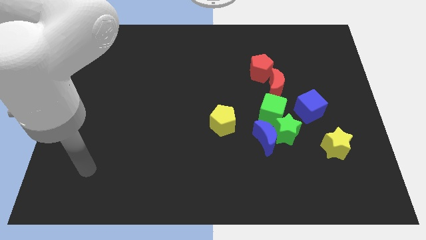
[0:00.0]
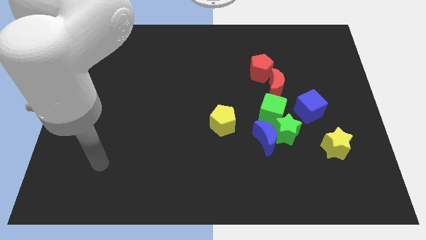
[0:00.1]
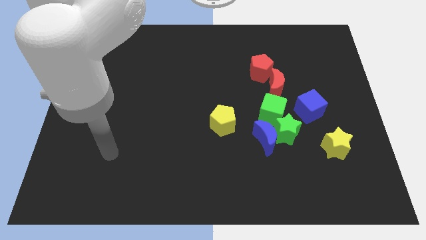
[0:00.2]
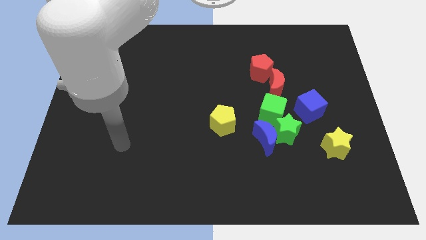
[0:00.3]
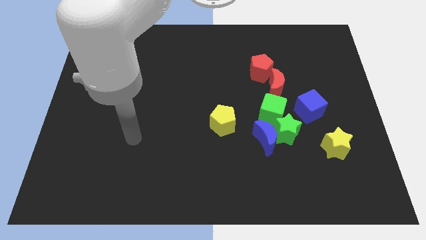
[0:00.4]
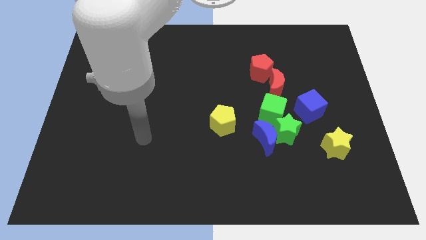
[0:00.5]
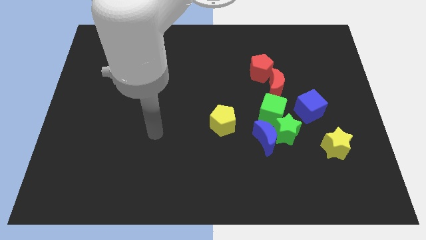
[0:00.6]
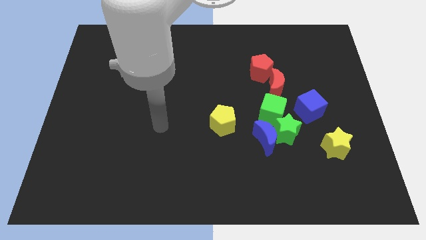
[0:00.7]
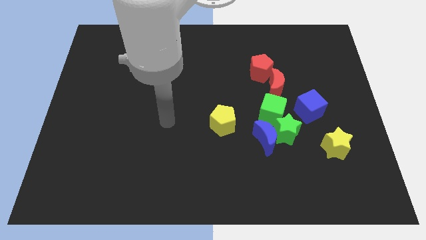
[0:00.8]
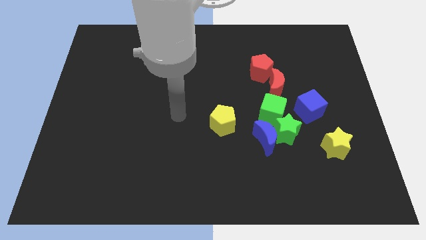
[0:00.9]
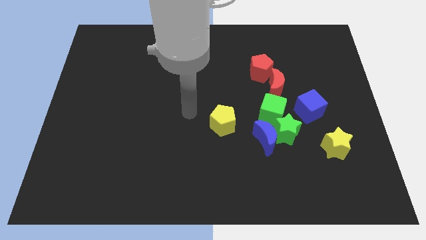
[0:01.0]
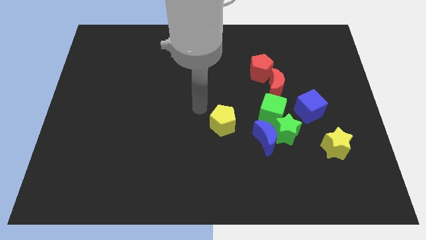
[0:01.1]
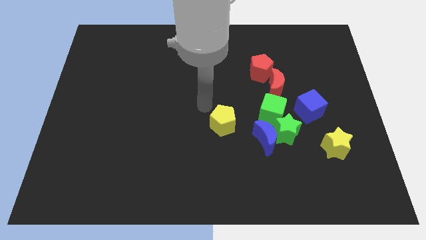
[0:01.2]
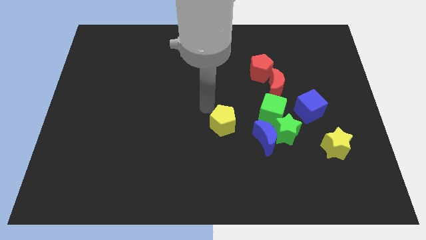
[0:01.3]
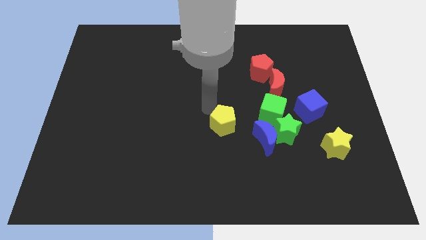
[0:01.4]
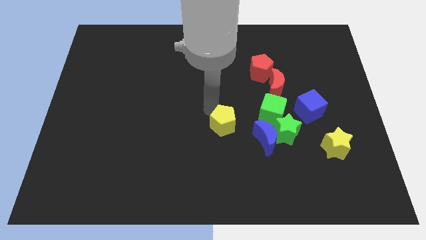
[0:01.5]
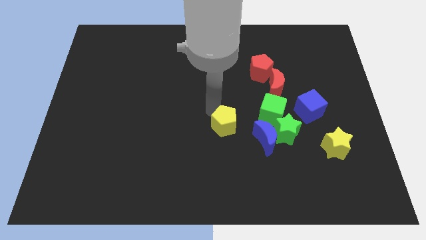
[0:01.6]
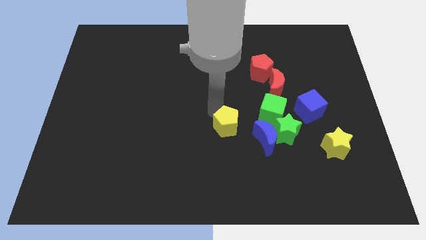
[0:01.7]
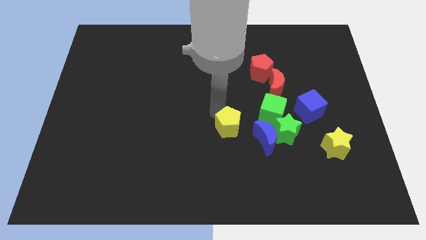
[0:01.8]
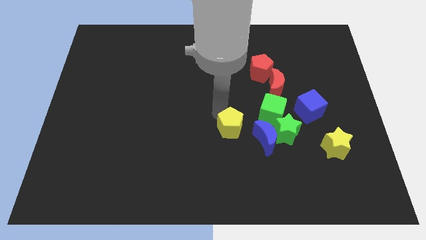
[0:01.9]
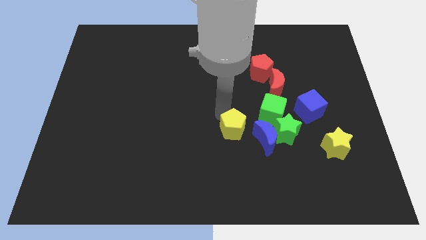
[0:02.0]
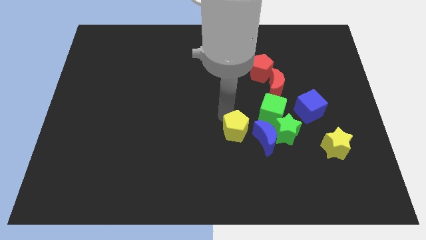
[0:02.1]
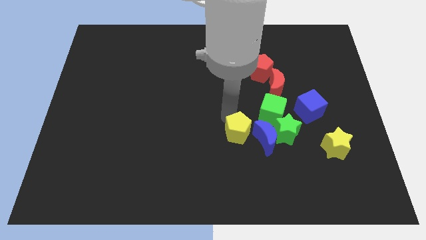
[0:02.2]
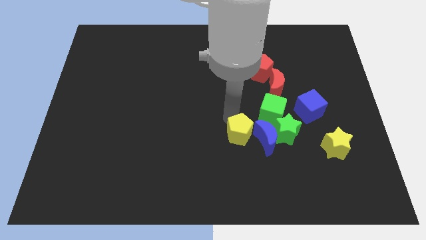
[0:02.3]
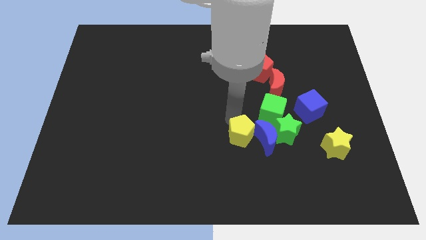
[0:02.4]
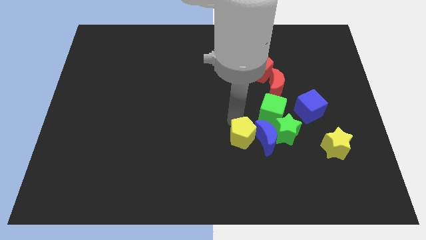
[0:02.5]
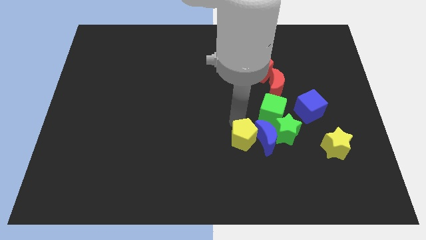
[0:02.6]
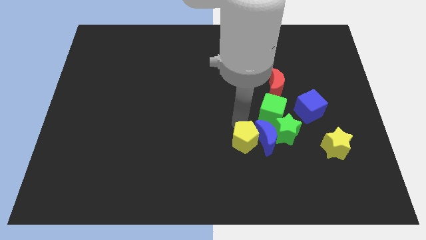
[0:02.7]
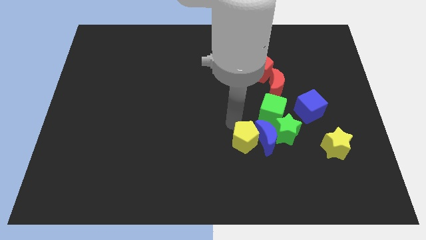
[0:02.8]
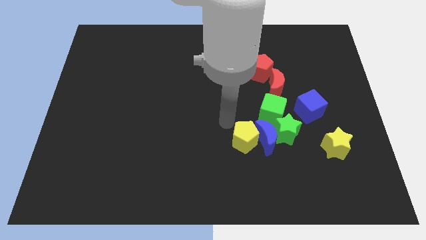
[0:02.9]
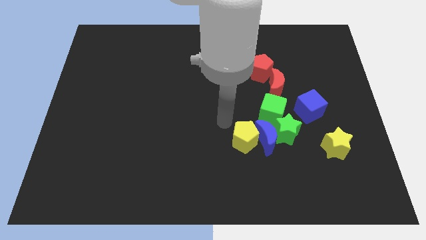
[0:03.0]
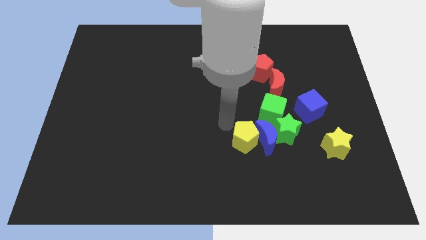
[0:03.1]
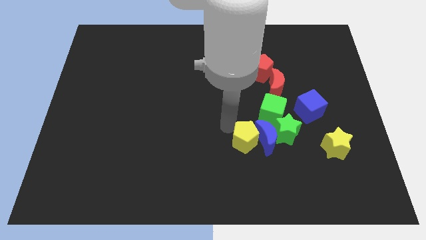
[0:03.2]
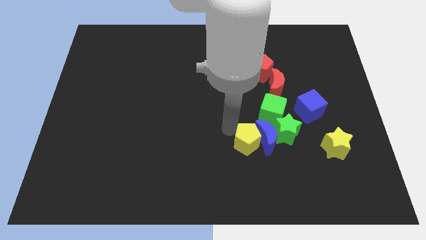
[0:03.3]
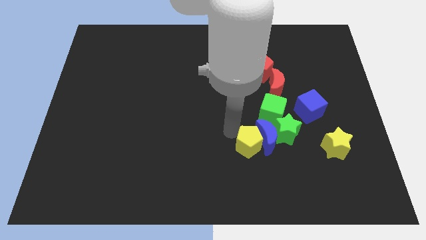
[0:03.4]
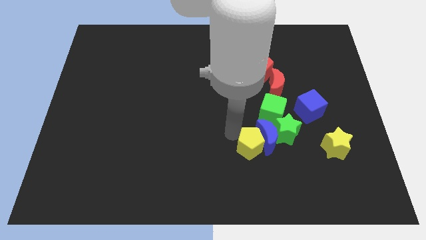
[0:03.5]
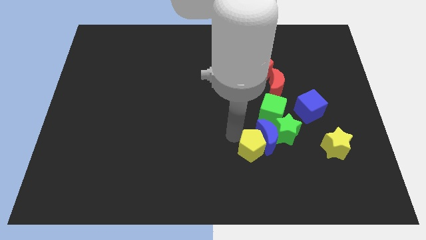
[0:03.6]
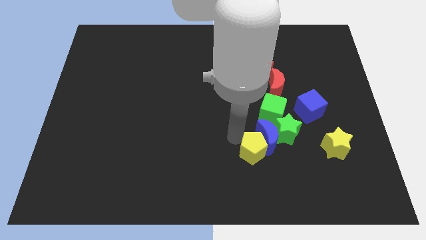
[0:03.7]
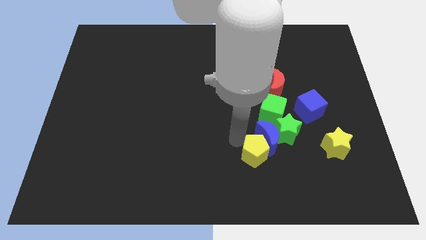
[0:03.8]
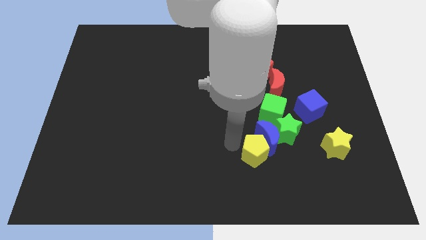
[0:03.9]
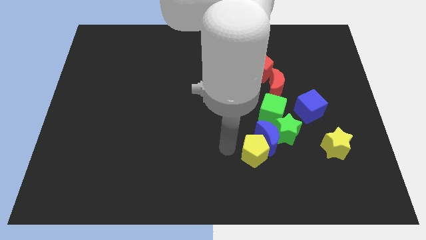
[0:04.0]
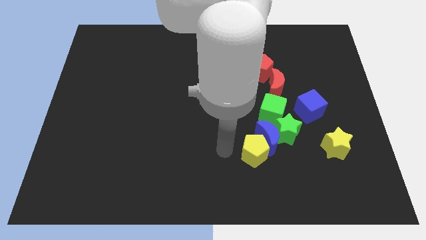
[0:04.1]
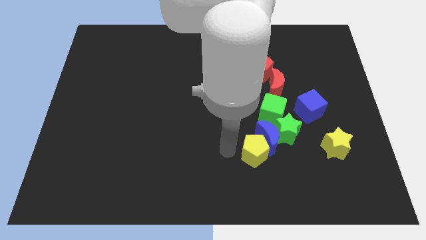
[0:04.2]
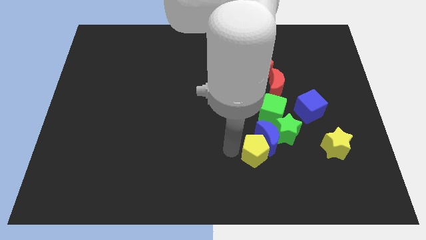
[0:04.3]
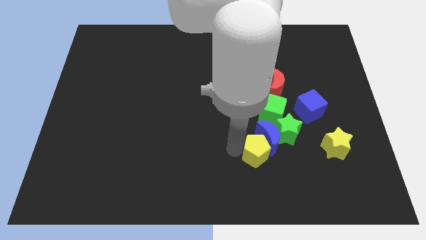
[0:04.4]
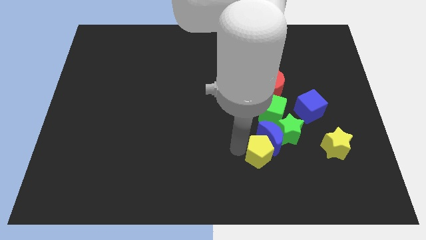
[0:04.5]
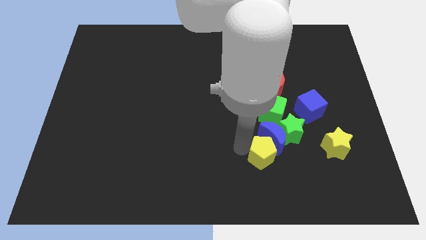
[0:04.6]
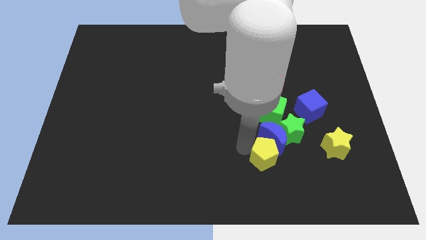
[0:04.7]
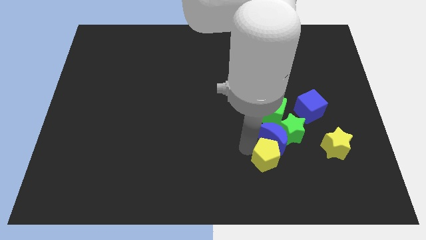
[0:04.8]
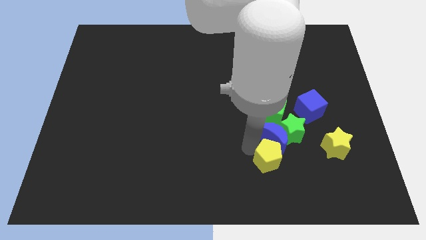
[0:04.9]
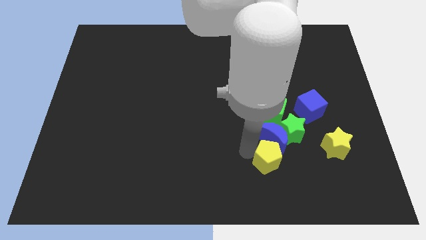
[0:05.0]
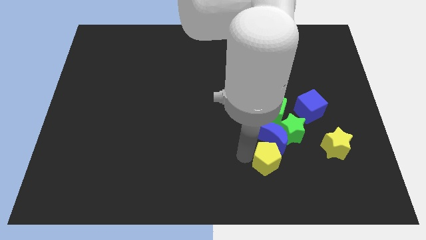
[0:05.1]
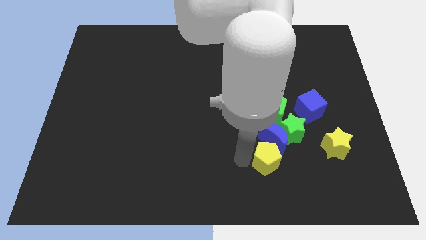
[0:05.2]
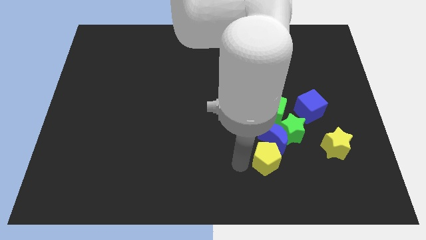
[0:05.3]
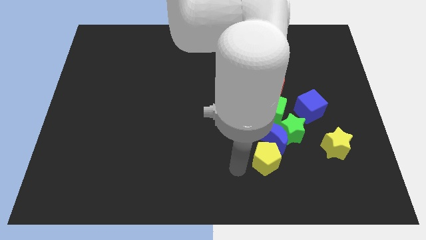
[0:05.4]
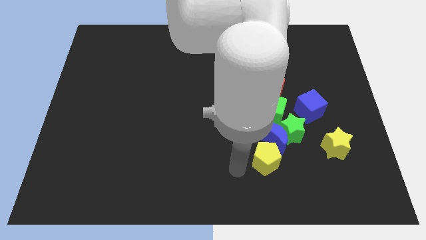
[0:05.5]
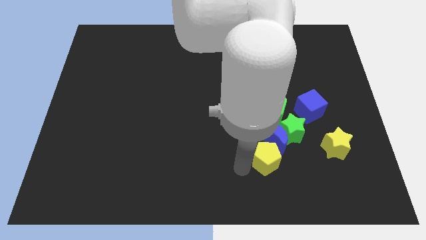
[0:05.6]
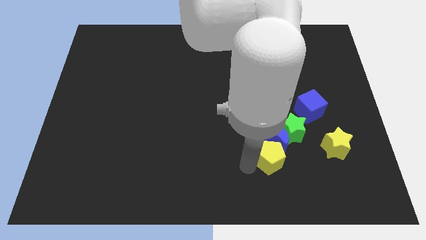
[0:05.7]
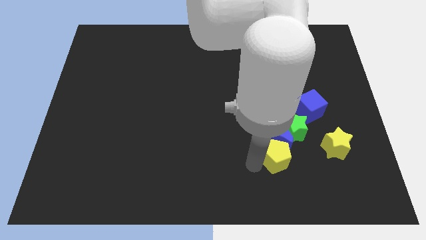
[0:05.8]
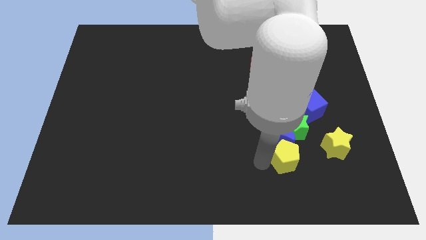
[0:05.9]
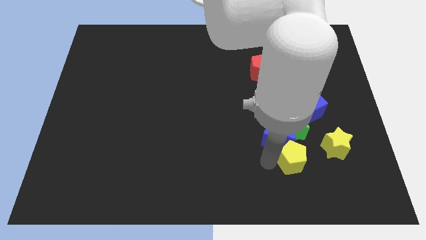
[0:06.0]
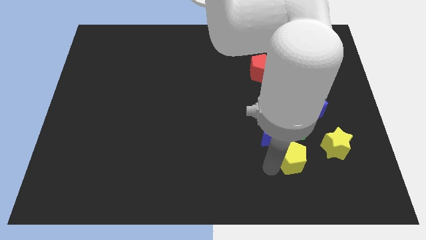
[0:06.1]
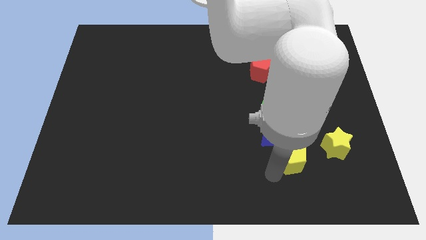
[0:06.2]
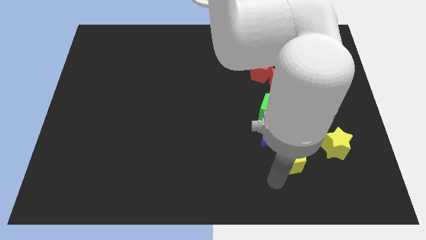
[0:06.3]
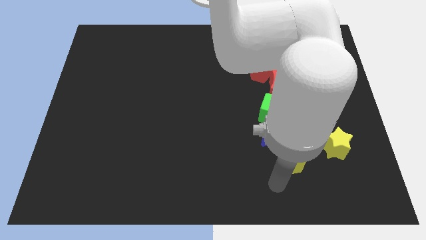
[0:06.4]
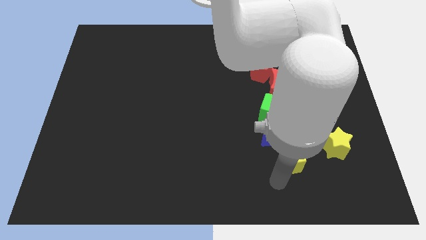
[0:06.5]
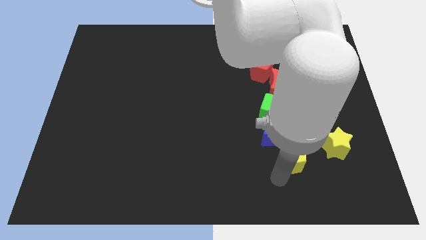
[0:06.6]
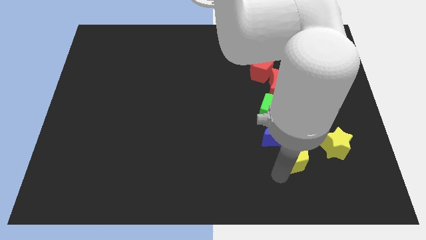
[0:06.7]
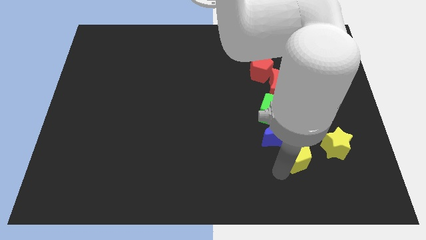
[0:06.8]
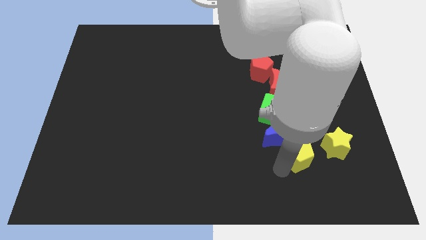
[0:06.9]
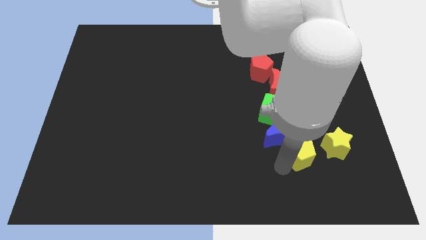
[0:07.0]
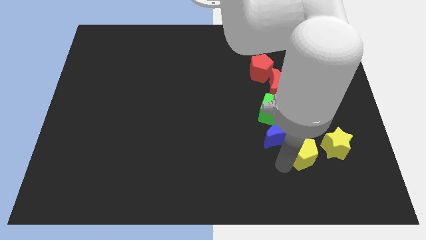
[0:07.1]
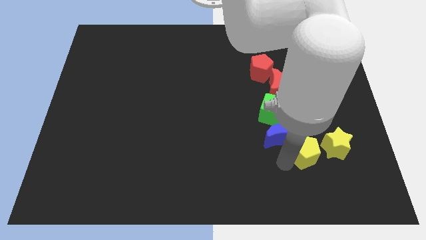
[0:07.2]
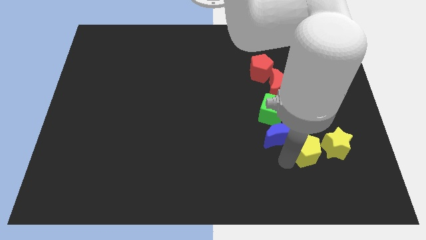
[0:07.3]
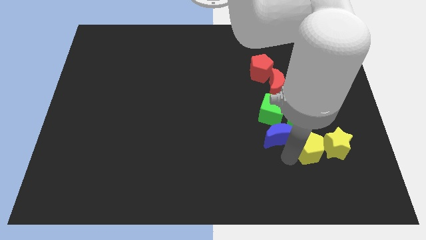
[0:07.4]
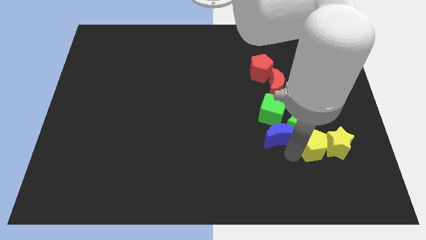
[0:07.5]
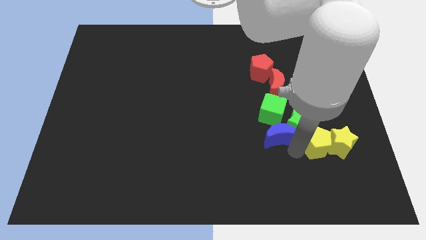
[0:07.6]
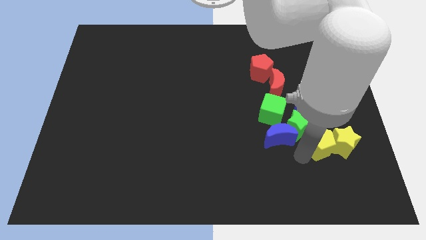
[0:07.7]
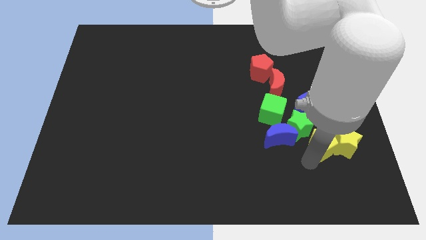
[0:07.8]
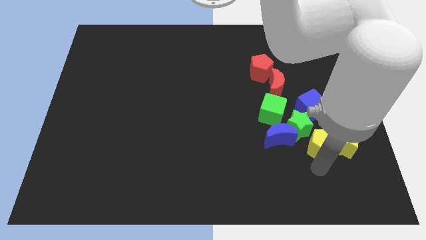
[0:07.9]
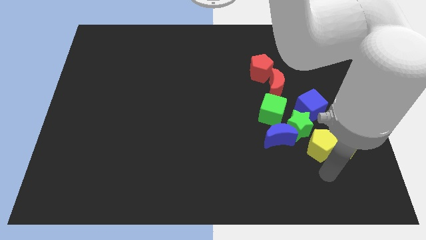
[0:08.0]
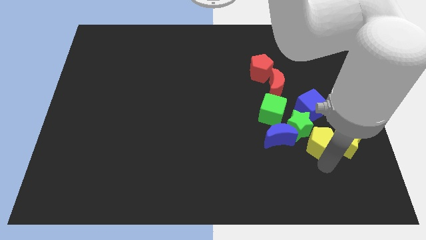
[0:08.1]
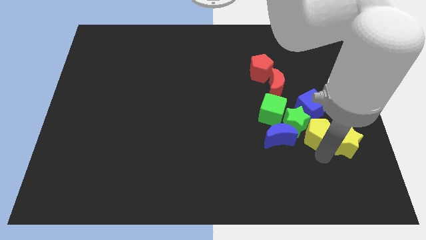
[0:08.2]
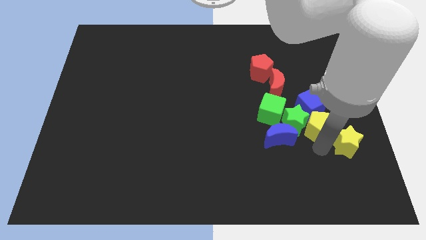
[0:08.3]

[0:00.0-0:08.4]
move the yellow pentagon close to the blue cube
